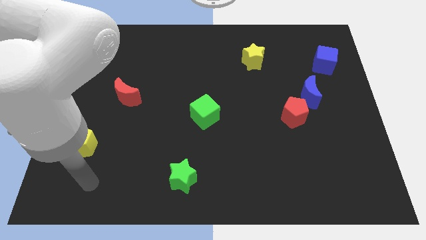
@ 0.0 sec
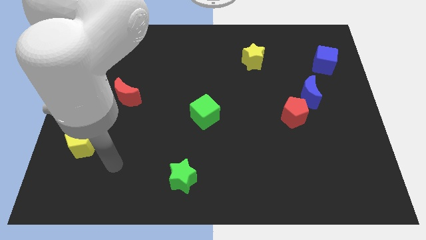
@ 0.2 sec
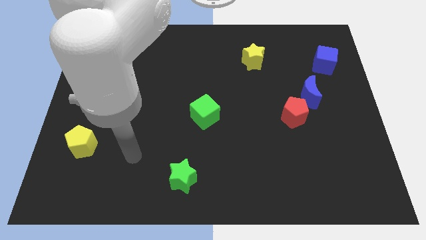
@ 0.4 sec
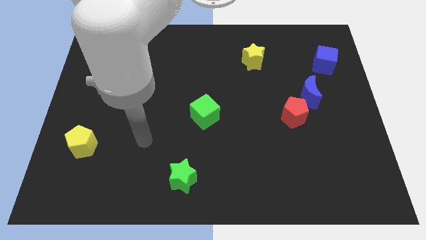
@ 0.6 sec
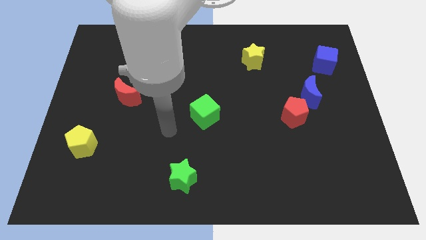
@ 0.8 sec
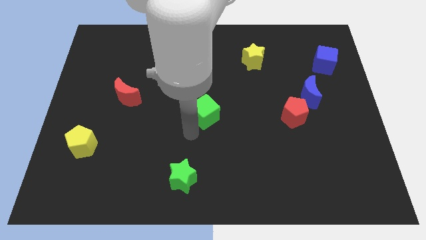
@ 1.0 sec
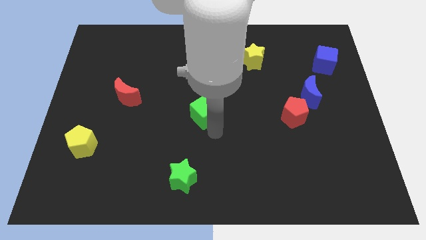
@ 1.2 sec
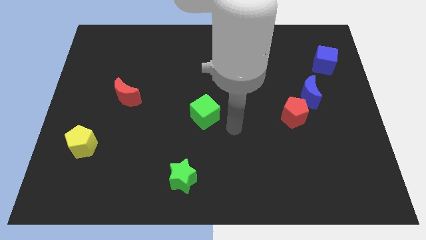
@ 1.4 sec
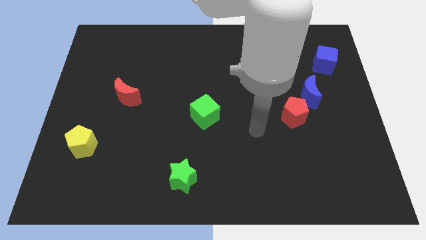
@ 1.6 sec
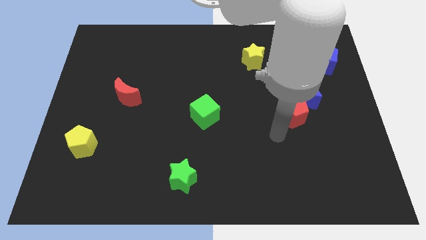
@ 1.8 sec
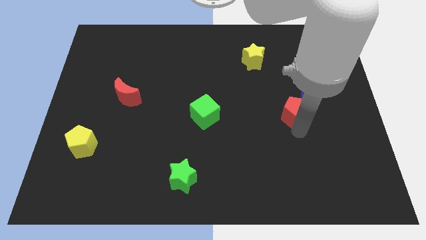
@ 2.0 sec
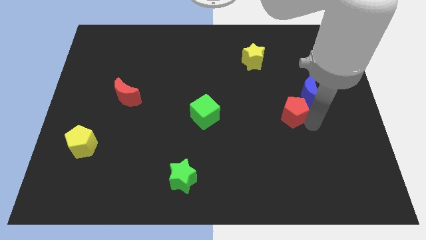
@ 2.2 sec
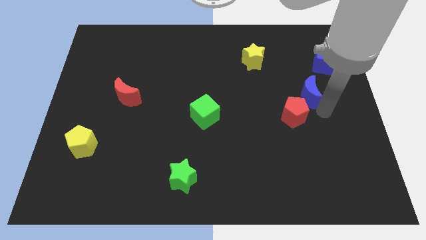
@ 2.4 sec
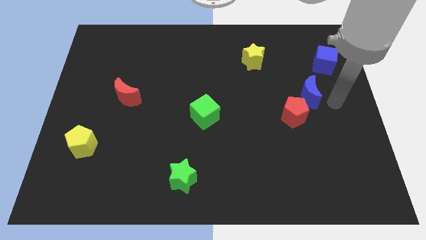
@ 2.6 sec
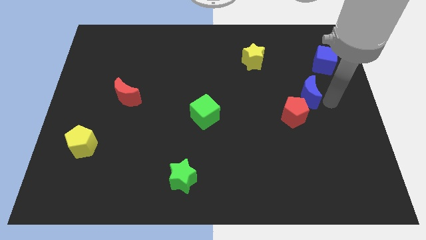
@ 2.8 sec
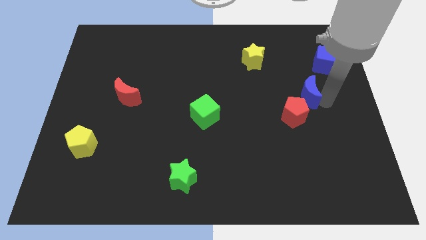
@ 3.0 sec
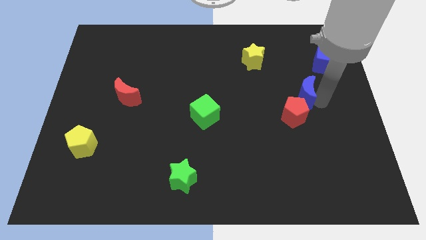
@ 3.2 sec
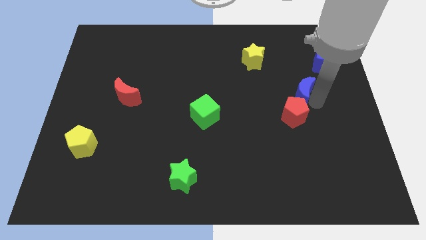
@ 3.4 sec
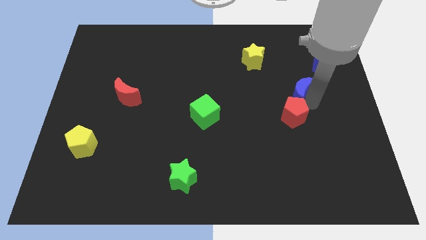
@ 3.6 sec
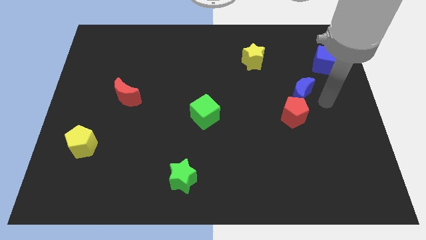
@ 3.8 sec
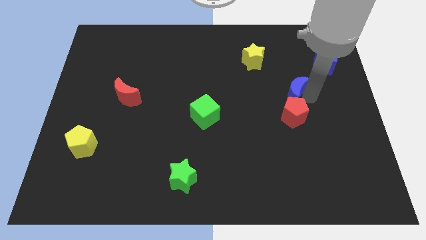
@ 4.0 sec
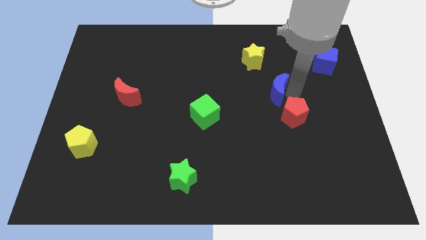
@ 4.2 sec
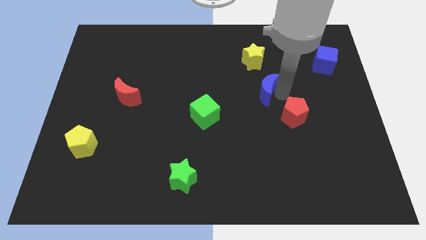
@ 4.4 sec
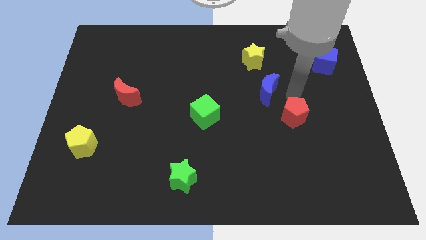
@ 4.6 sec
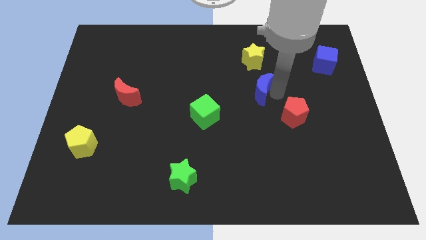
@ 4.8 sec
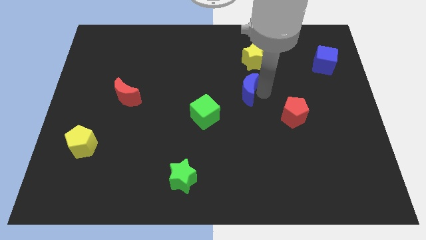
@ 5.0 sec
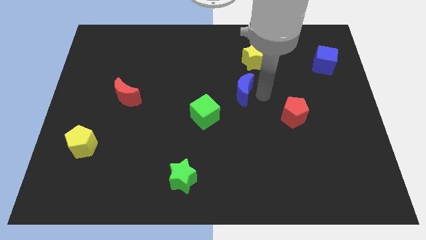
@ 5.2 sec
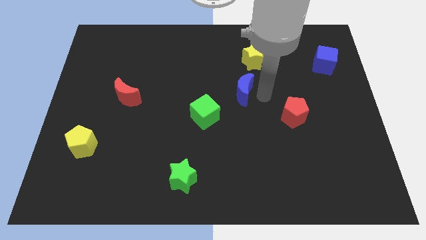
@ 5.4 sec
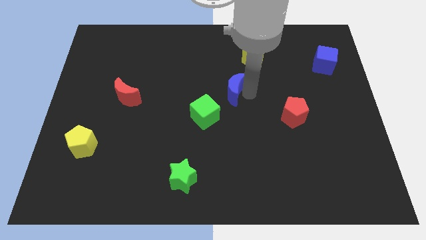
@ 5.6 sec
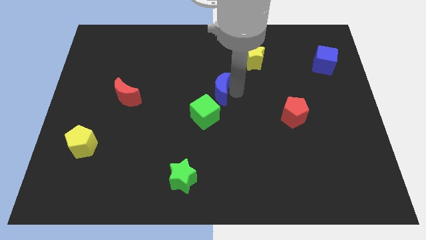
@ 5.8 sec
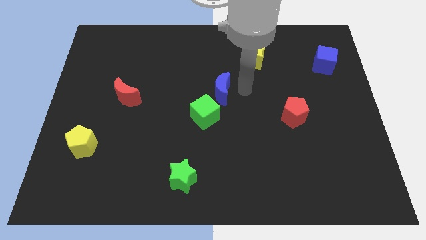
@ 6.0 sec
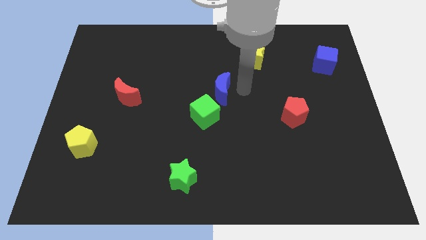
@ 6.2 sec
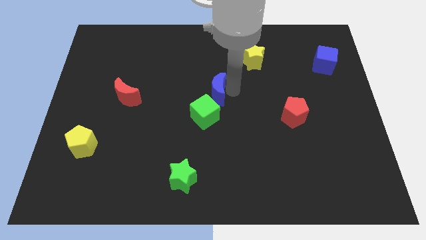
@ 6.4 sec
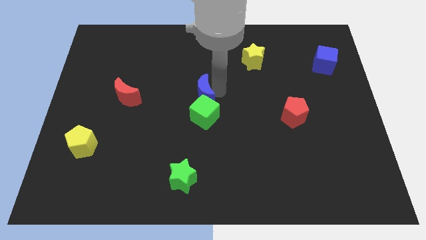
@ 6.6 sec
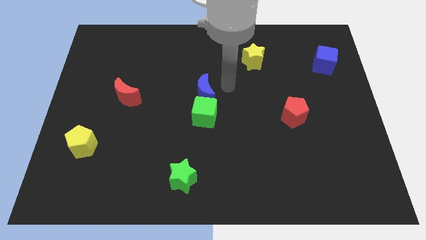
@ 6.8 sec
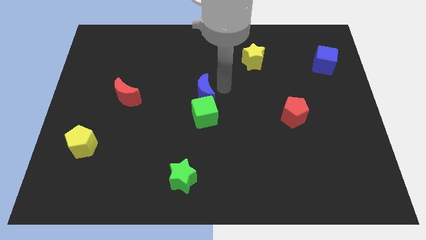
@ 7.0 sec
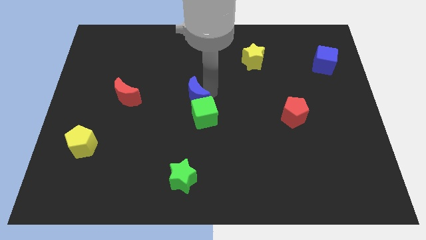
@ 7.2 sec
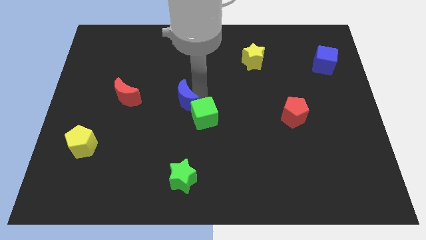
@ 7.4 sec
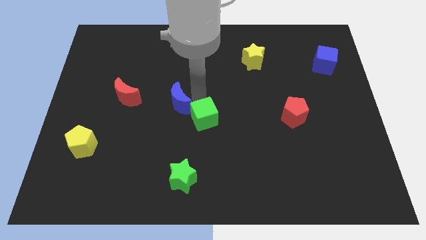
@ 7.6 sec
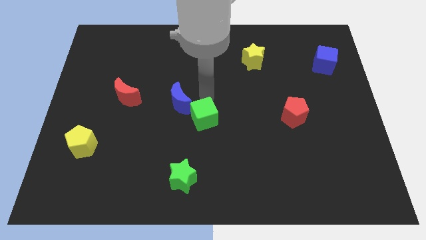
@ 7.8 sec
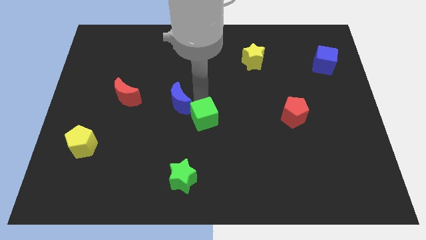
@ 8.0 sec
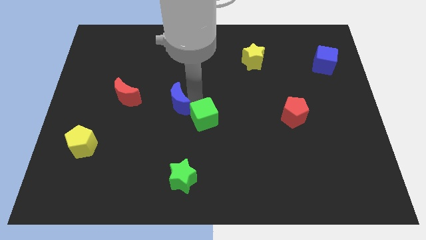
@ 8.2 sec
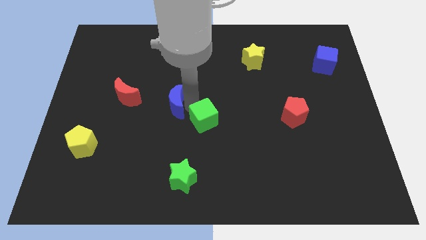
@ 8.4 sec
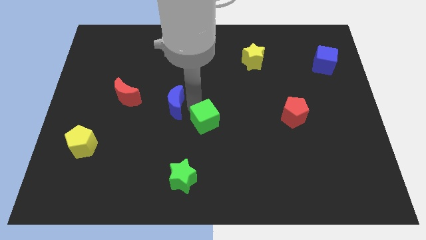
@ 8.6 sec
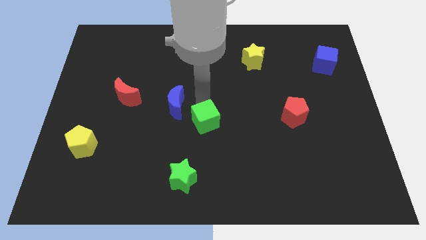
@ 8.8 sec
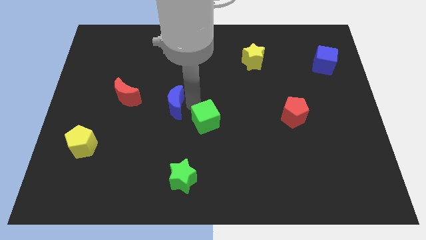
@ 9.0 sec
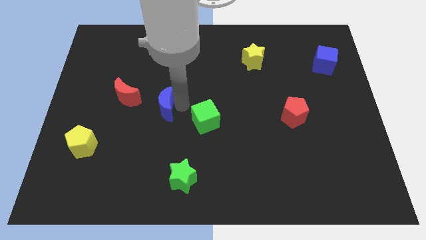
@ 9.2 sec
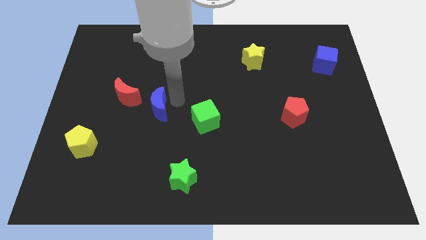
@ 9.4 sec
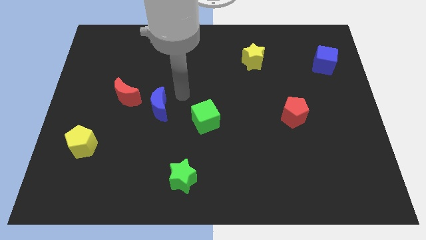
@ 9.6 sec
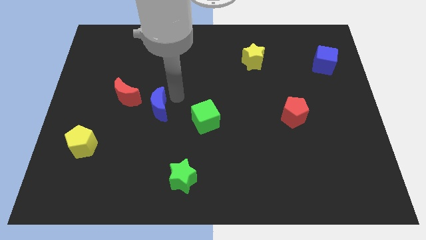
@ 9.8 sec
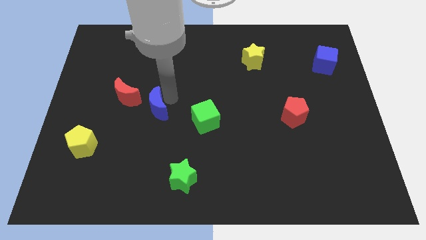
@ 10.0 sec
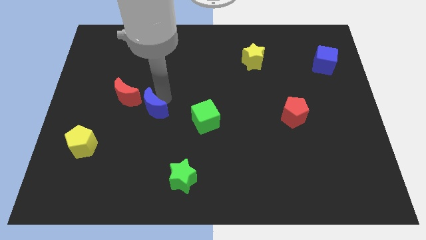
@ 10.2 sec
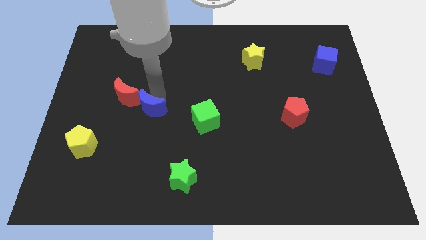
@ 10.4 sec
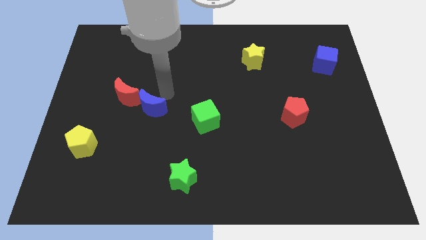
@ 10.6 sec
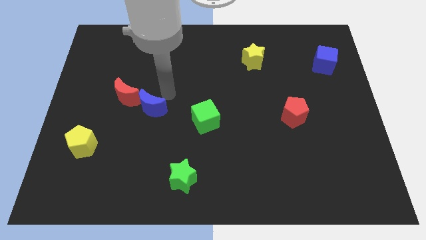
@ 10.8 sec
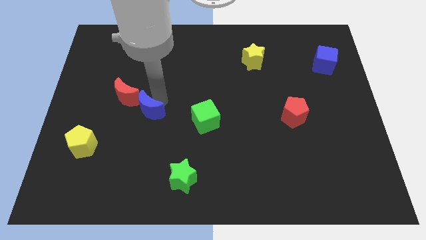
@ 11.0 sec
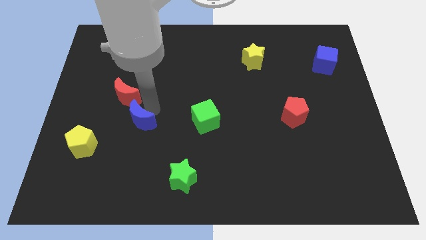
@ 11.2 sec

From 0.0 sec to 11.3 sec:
move the blue moon to the bottom side of the red moon
